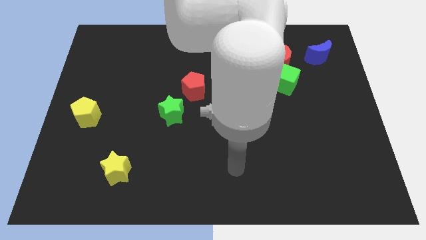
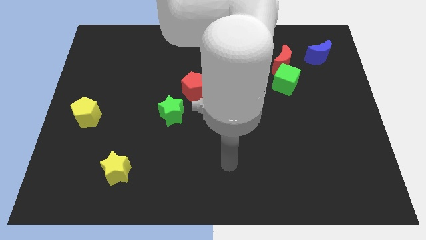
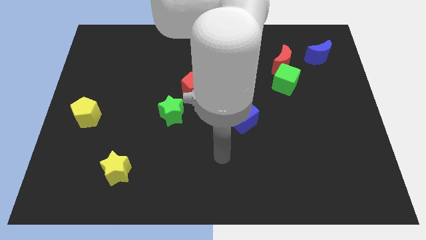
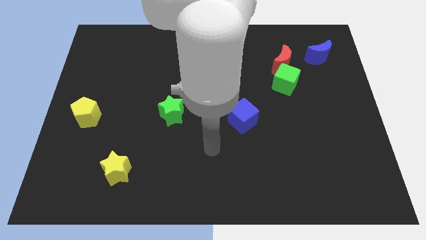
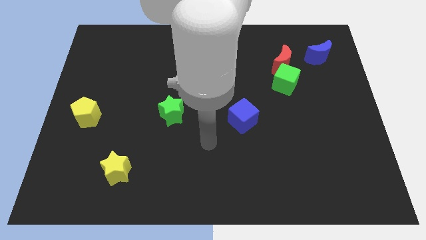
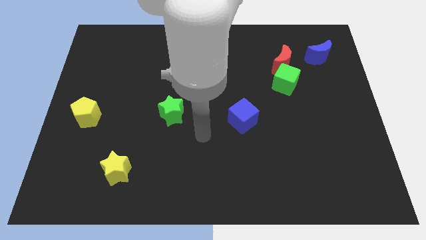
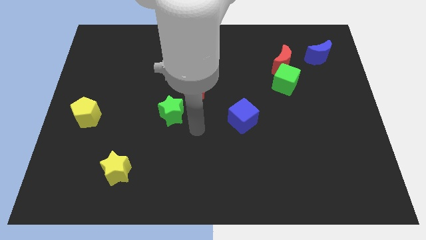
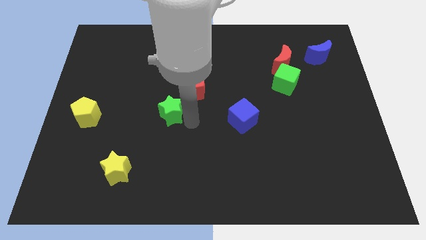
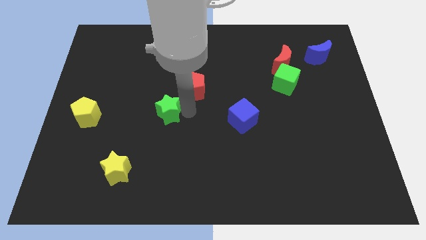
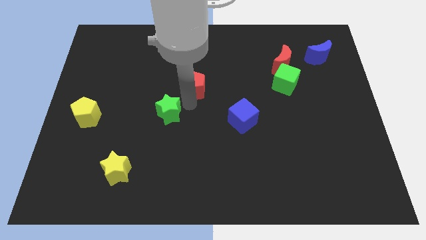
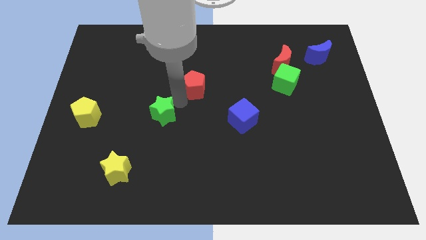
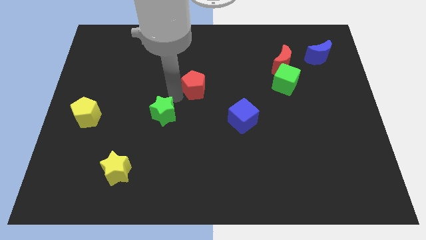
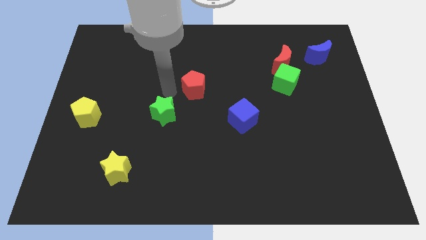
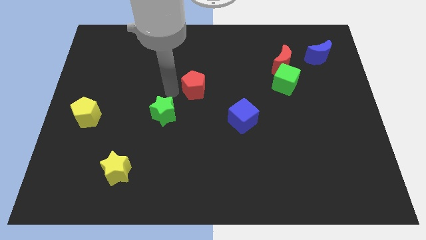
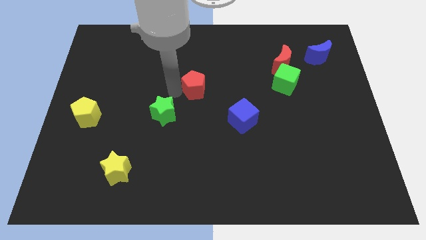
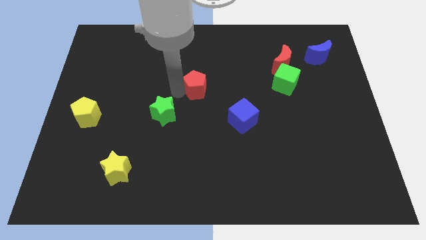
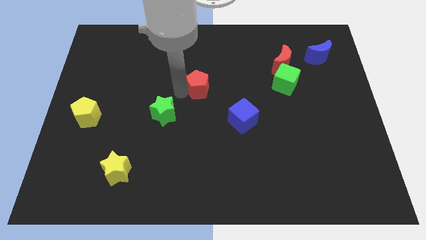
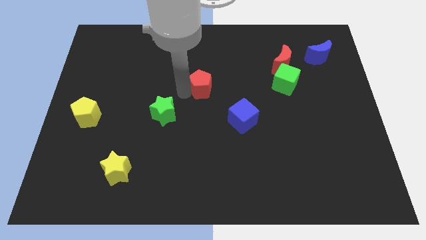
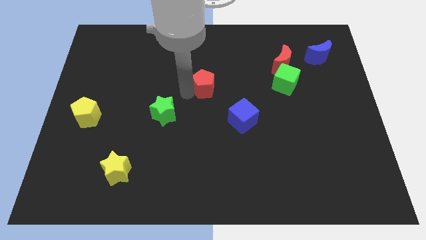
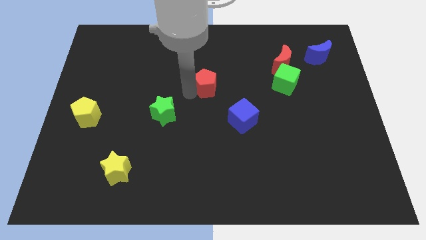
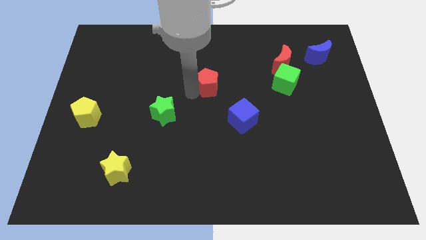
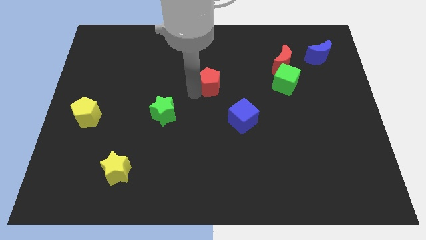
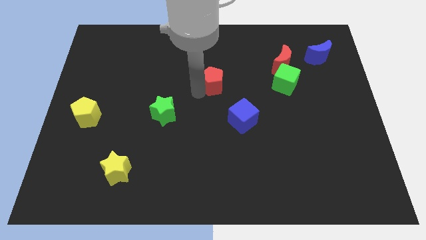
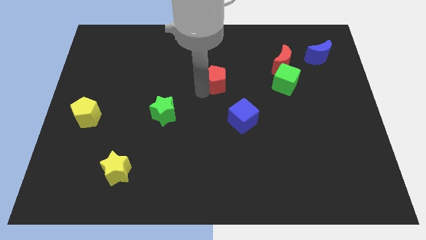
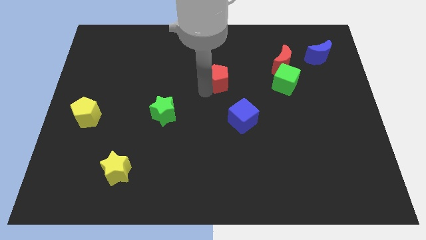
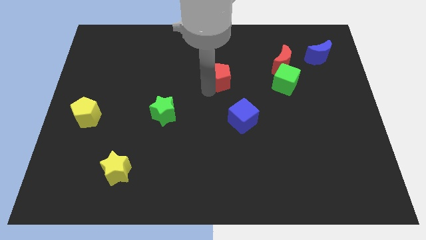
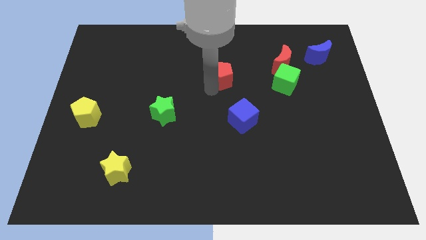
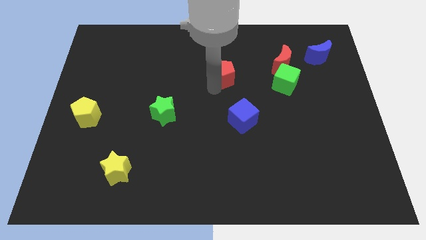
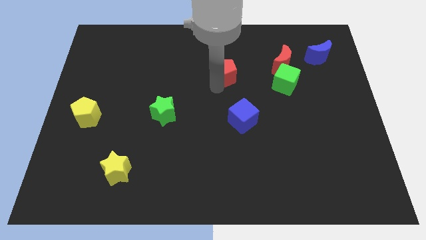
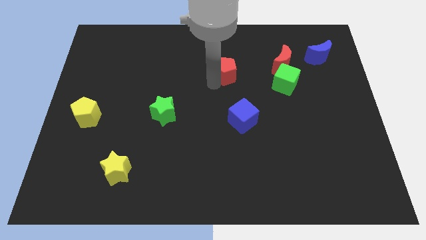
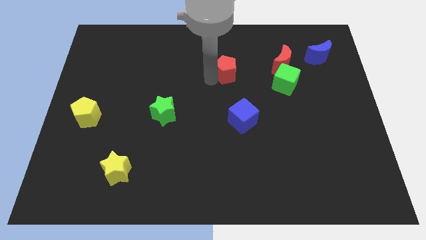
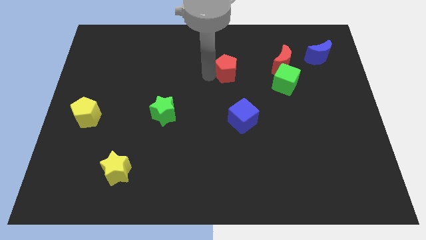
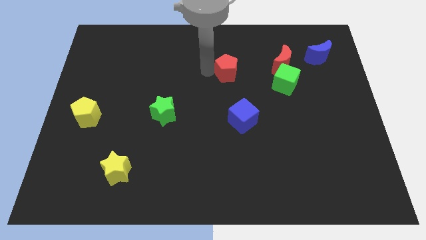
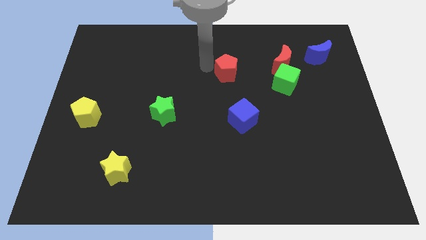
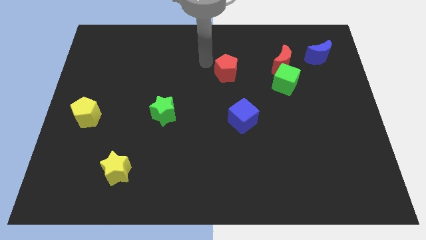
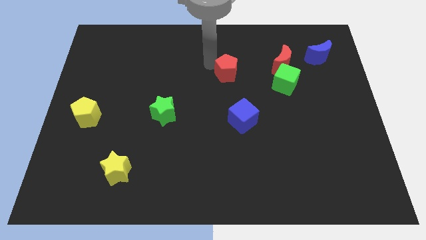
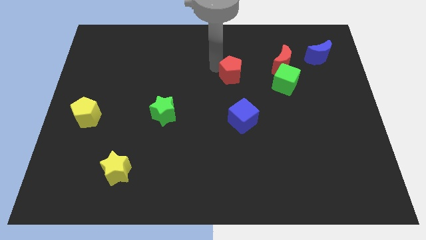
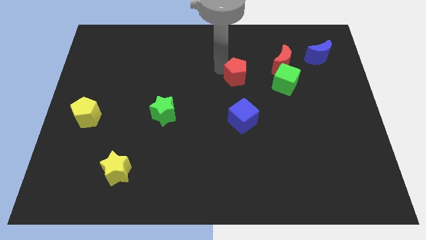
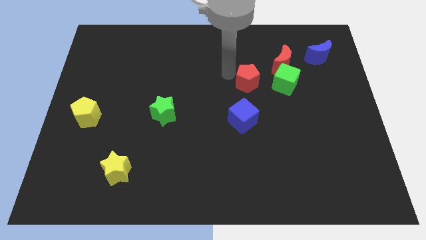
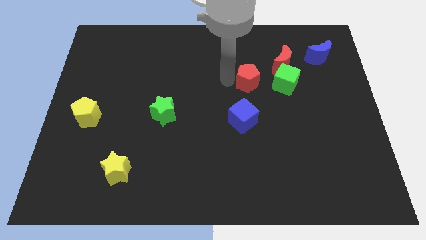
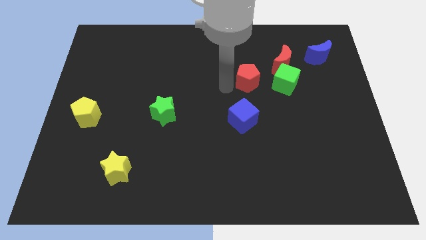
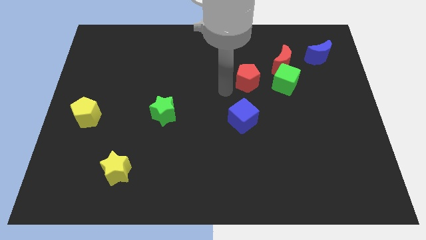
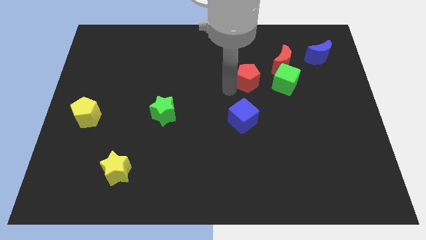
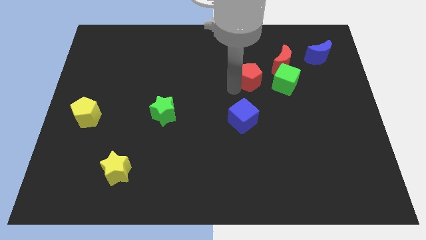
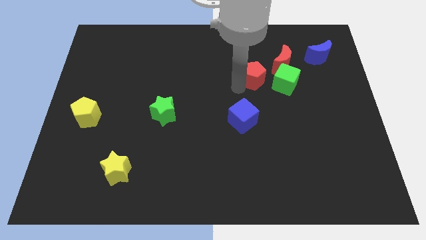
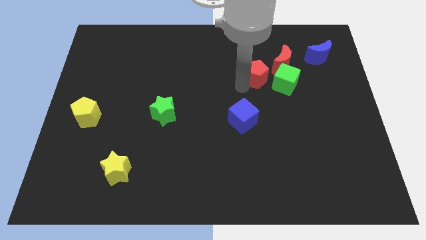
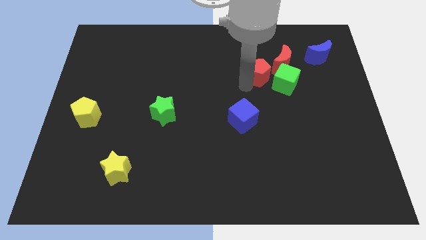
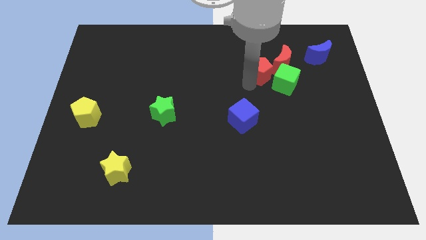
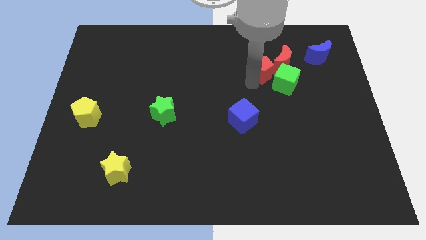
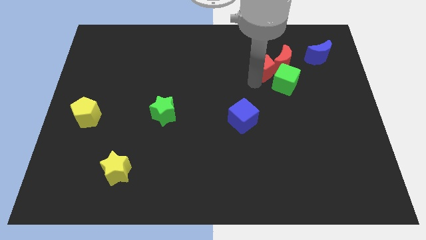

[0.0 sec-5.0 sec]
move the red pentagon close to the red moon

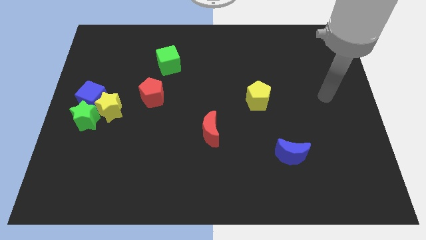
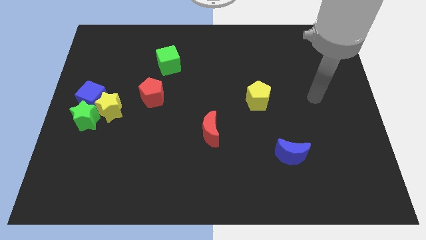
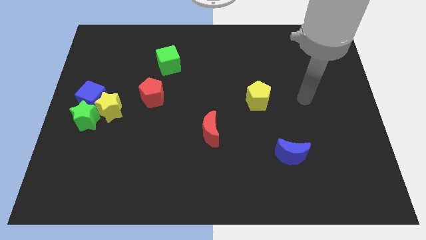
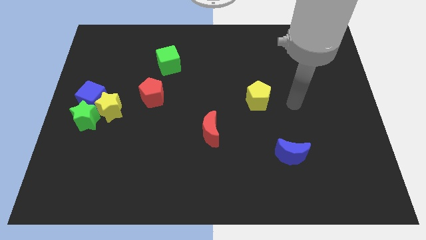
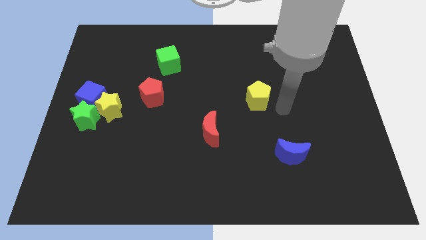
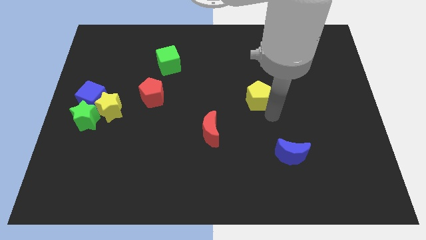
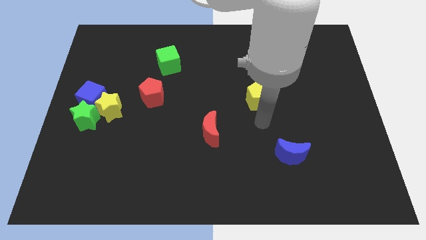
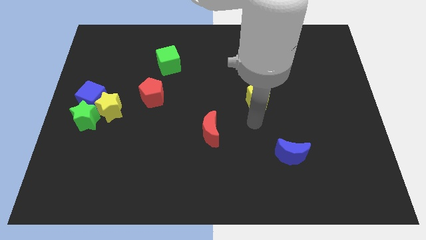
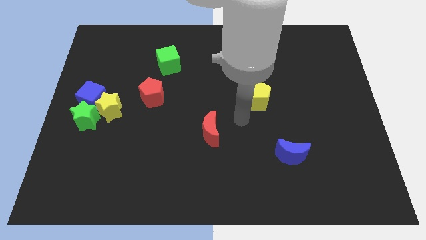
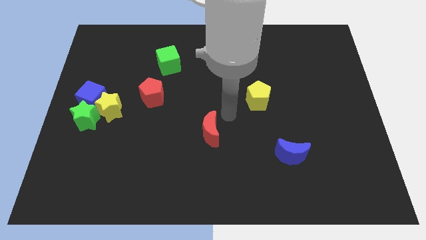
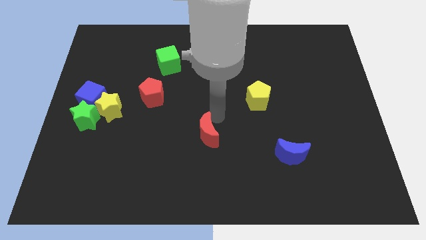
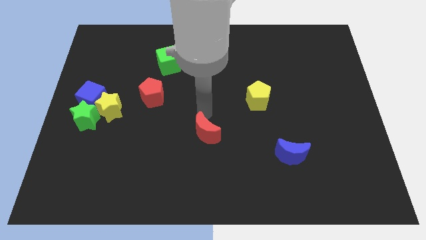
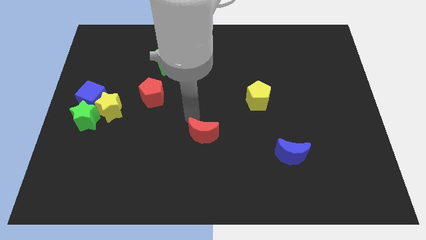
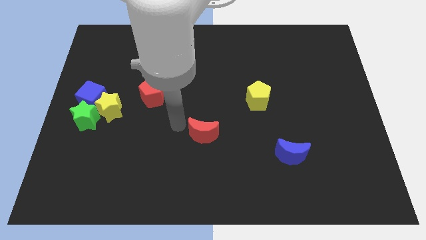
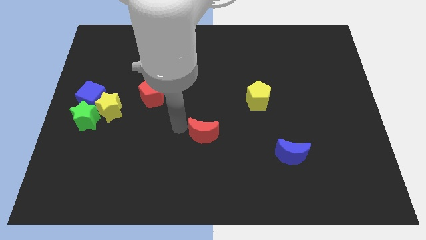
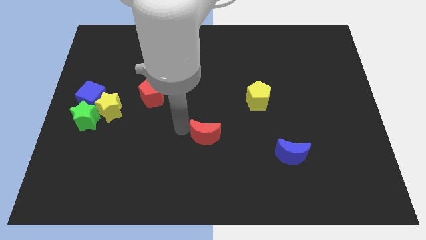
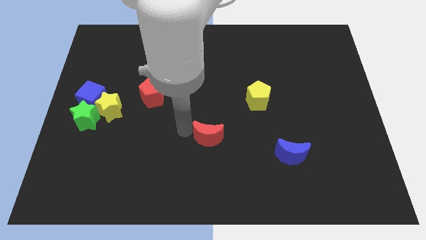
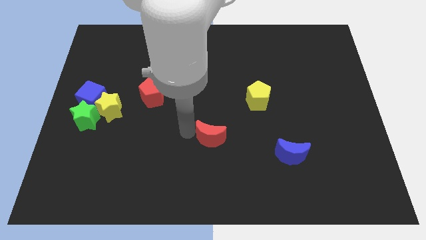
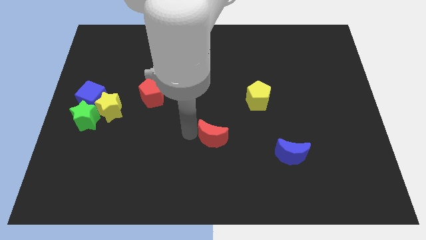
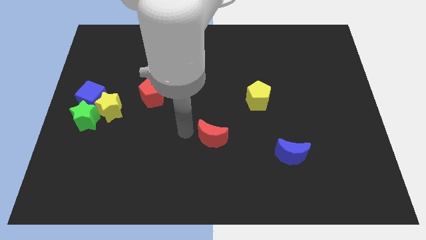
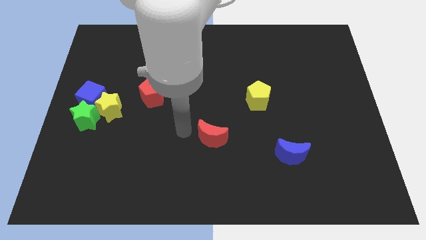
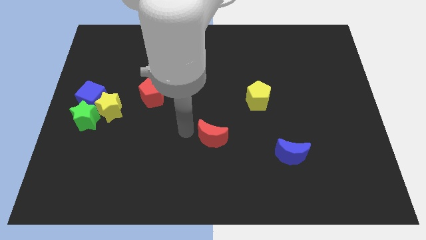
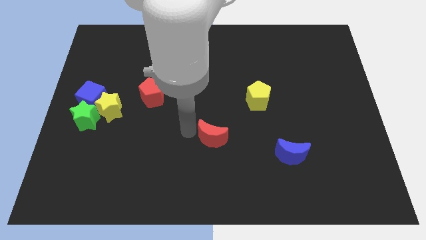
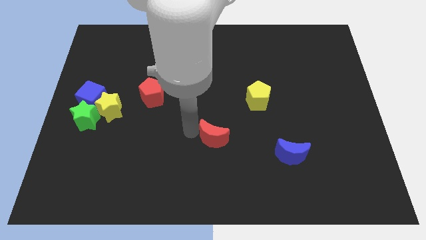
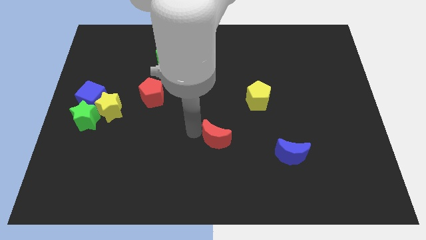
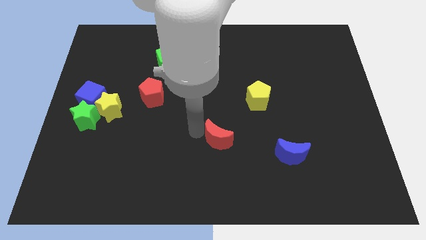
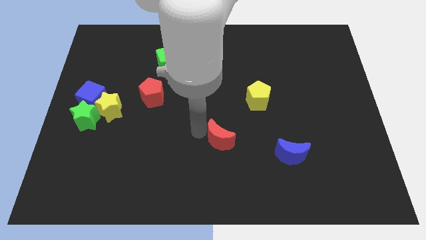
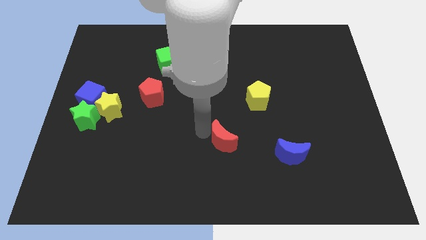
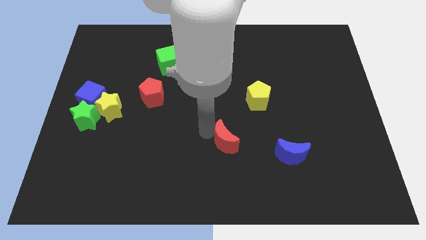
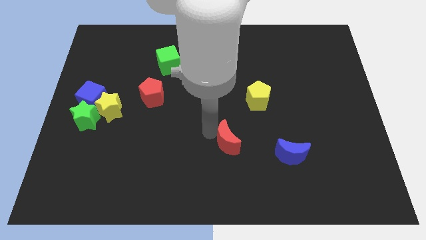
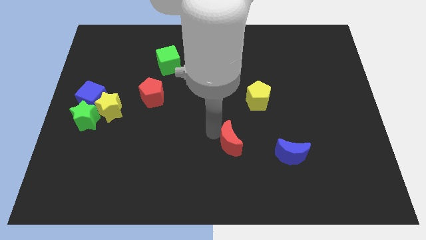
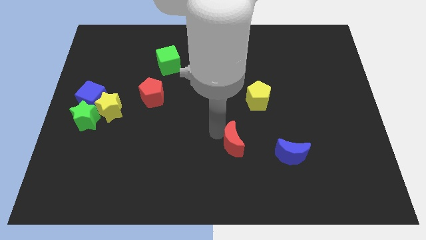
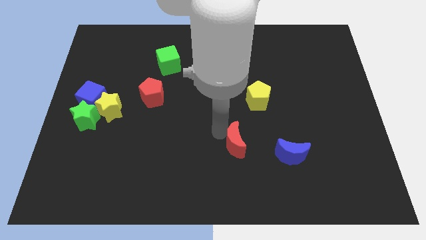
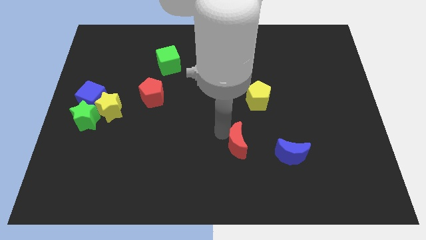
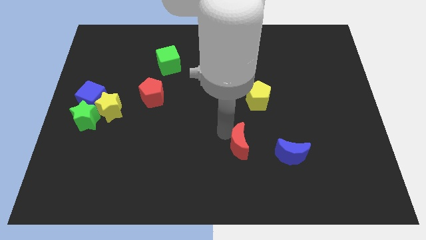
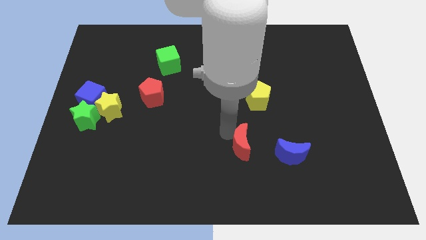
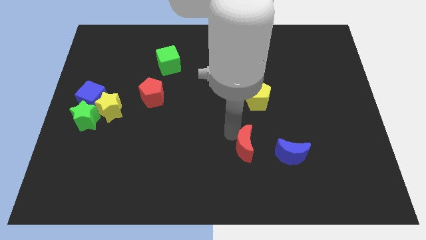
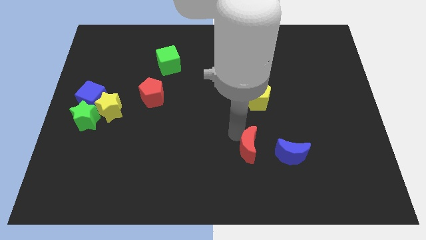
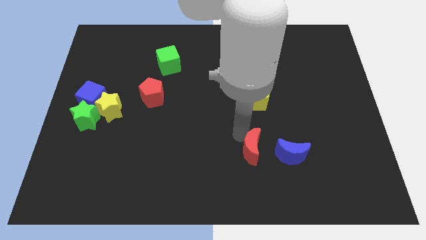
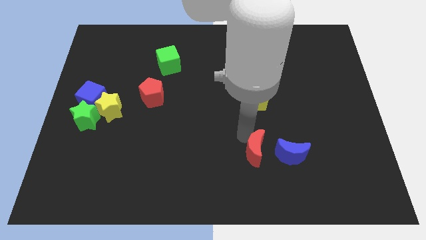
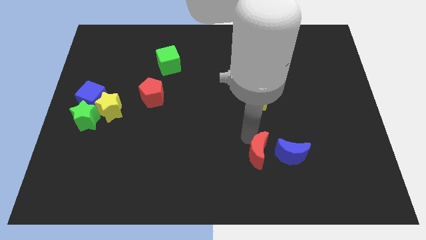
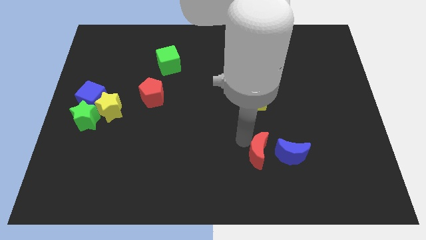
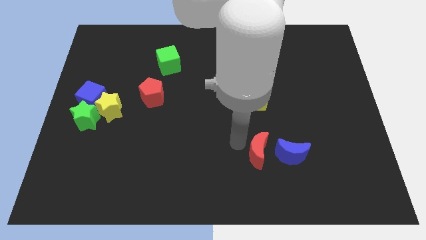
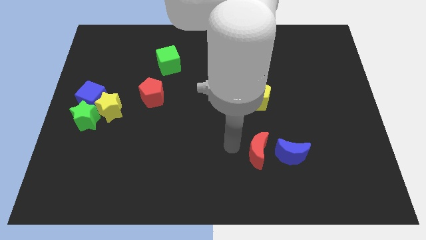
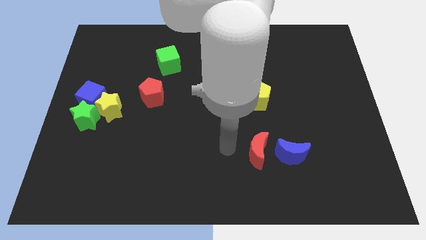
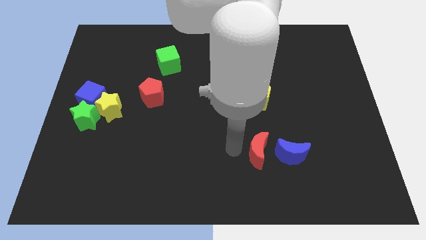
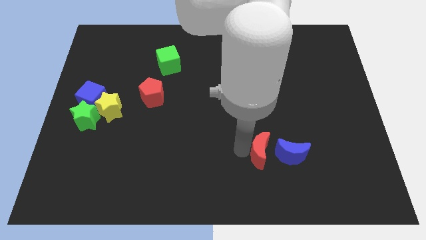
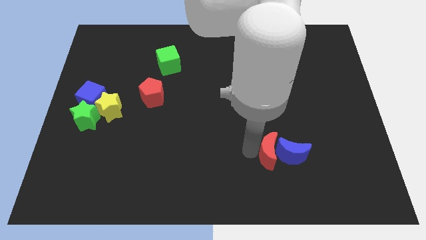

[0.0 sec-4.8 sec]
move the red moon next to the blue moon
